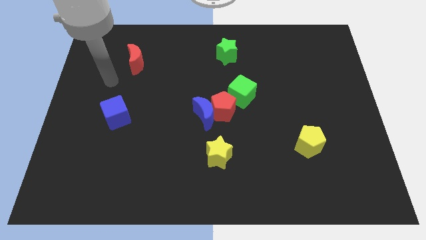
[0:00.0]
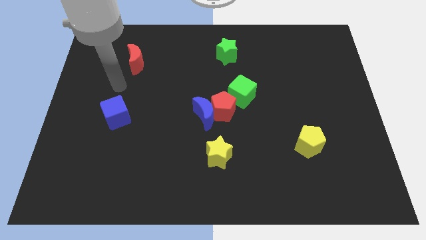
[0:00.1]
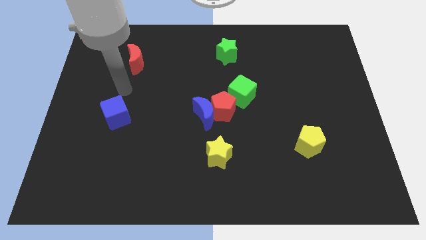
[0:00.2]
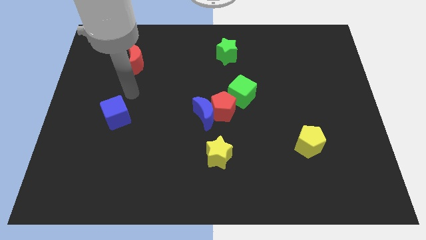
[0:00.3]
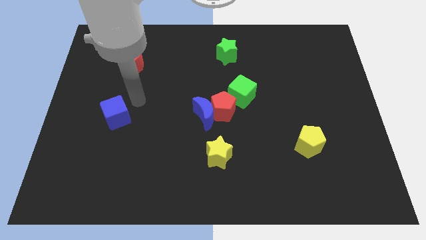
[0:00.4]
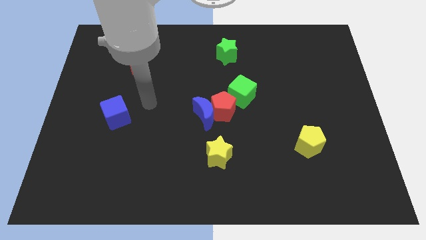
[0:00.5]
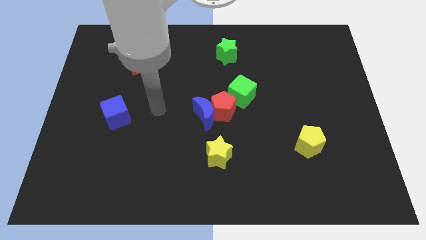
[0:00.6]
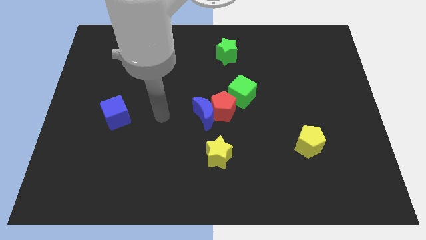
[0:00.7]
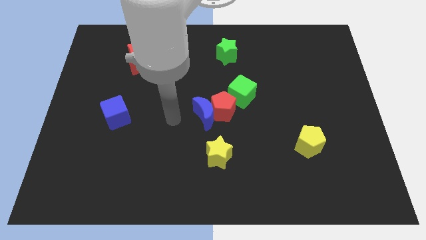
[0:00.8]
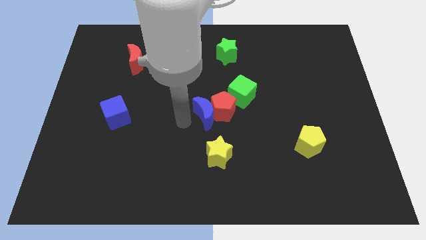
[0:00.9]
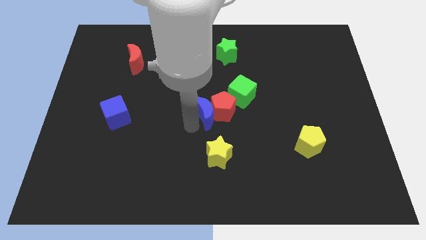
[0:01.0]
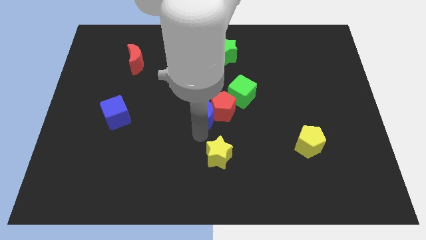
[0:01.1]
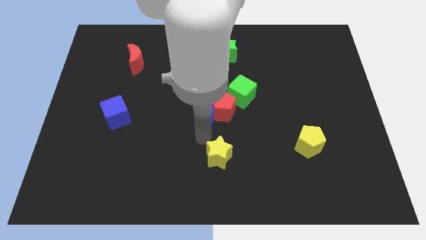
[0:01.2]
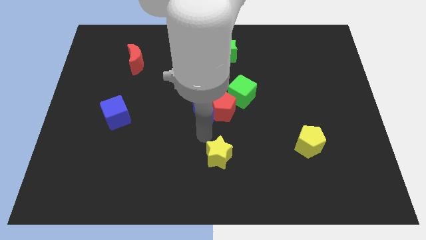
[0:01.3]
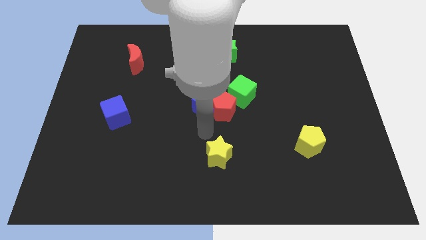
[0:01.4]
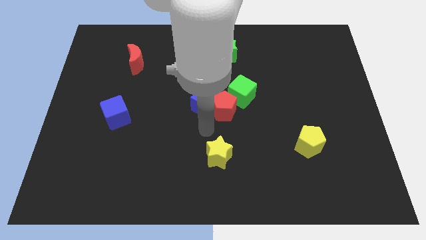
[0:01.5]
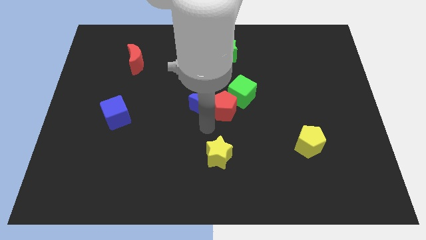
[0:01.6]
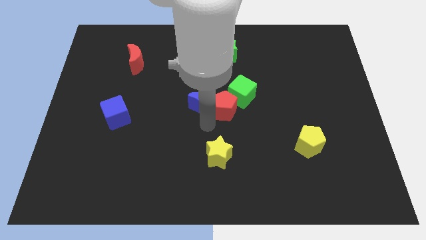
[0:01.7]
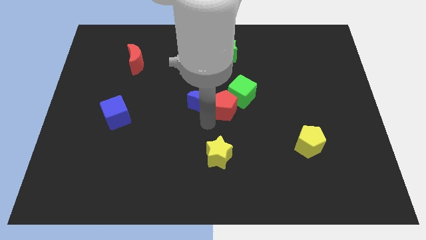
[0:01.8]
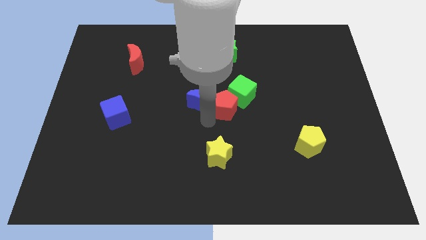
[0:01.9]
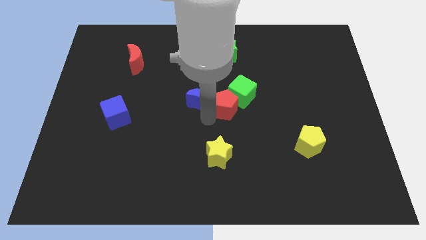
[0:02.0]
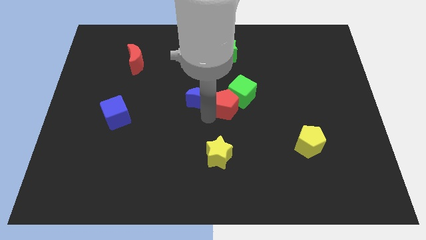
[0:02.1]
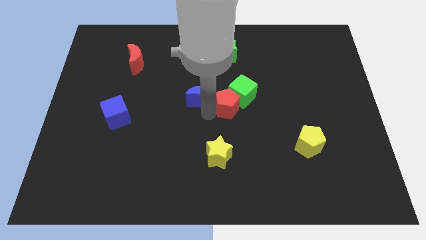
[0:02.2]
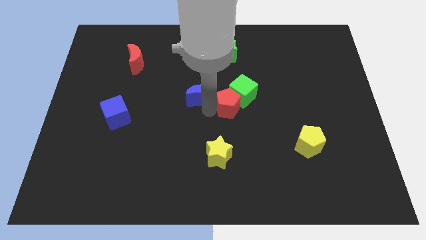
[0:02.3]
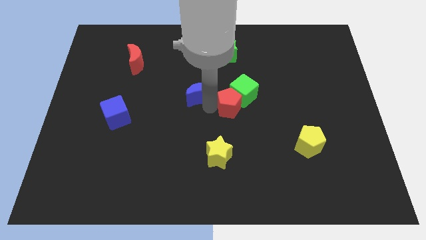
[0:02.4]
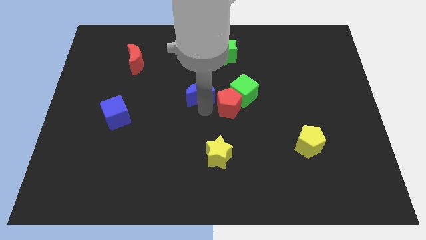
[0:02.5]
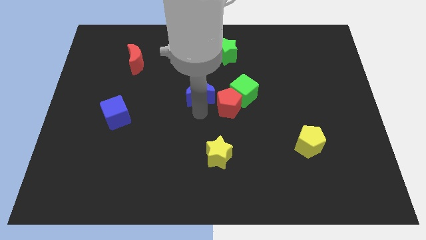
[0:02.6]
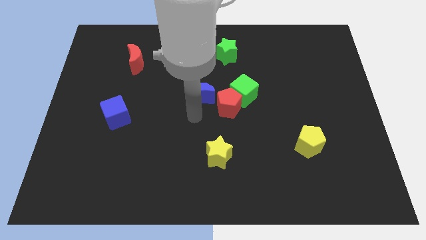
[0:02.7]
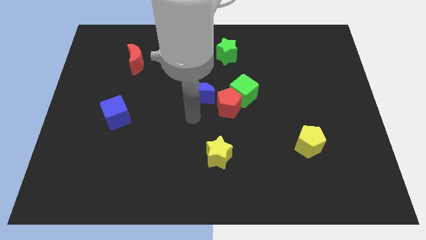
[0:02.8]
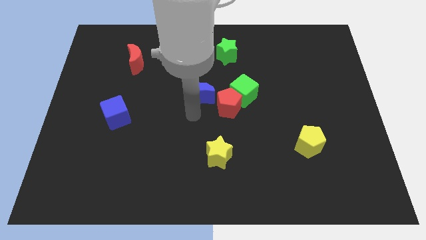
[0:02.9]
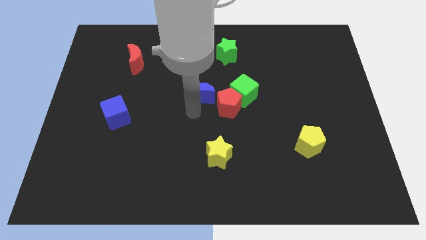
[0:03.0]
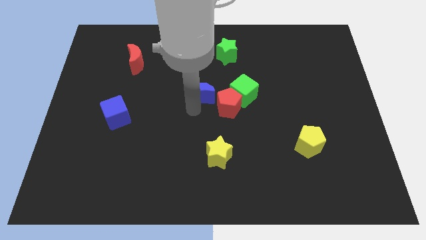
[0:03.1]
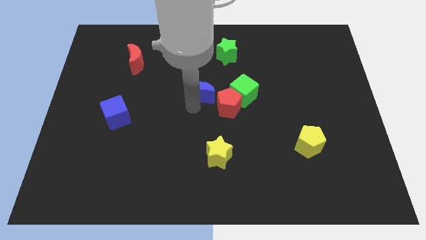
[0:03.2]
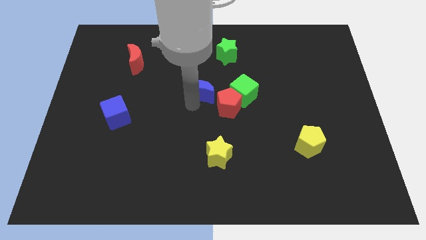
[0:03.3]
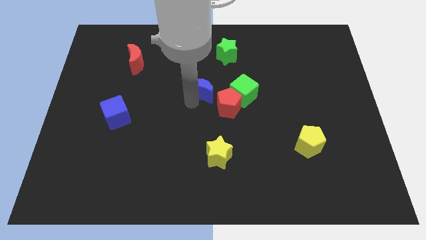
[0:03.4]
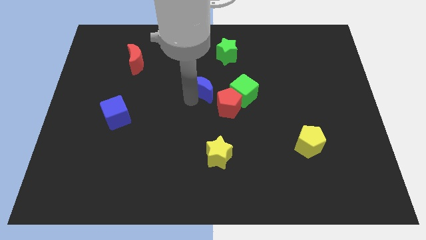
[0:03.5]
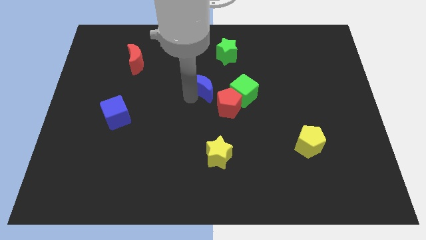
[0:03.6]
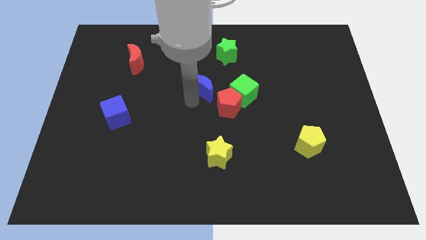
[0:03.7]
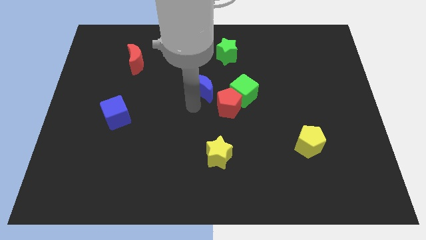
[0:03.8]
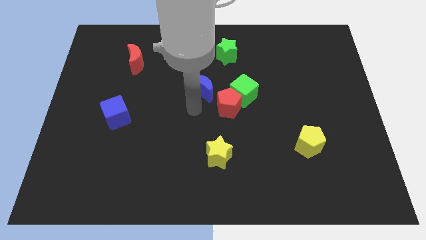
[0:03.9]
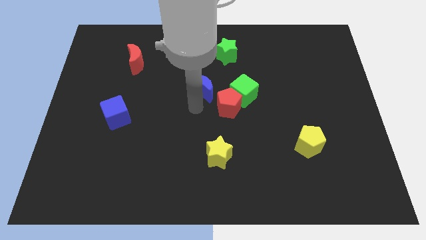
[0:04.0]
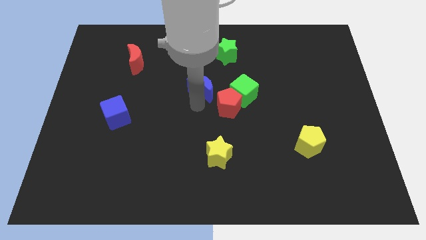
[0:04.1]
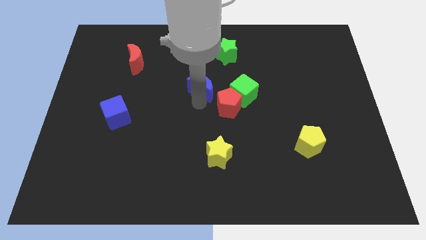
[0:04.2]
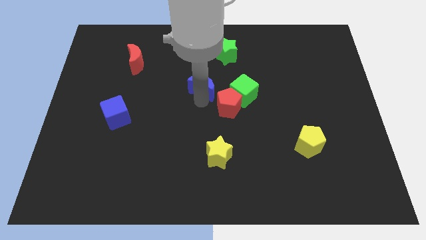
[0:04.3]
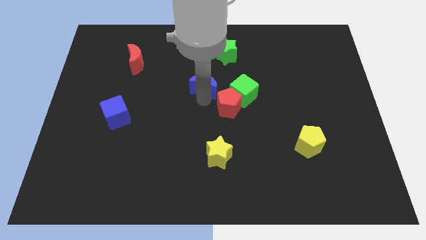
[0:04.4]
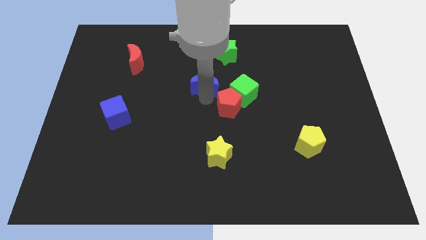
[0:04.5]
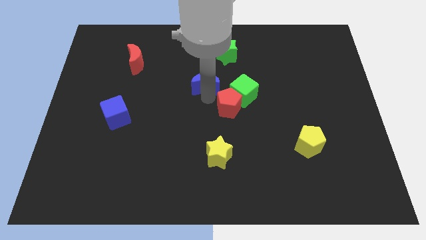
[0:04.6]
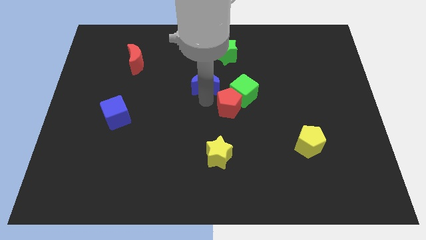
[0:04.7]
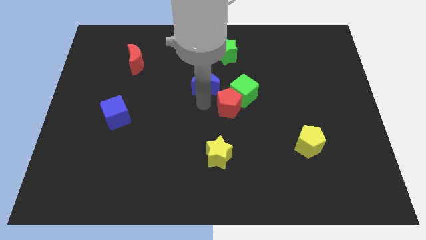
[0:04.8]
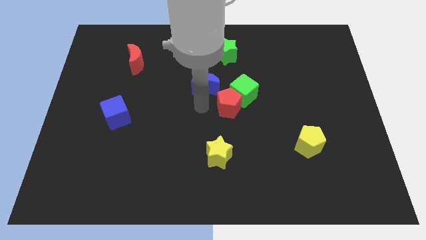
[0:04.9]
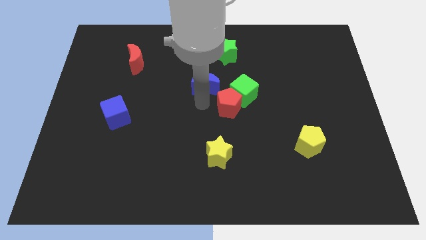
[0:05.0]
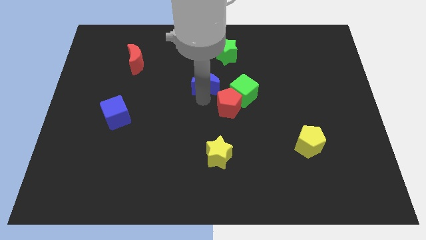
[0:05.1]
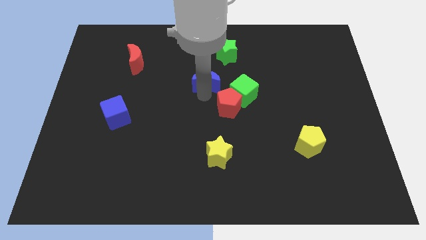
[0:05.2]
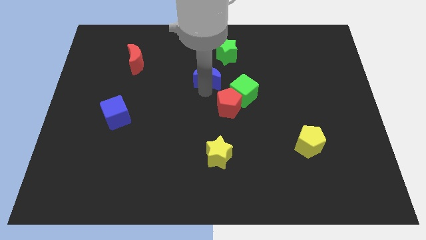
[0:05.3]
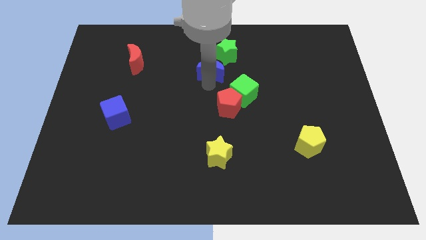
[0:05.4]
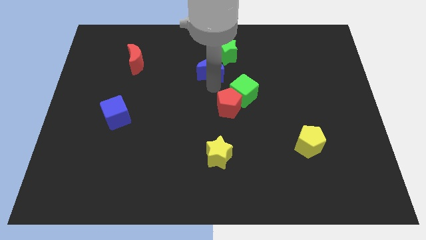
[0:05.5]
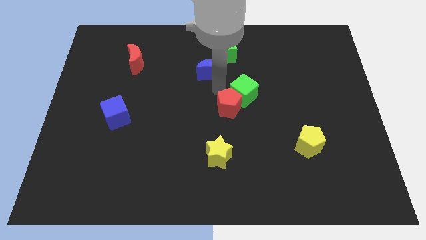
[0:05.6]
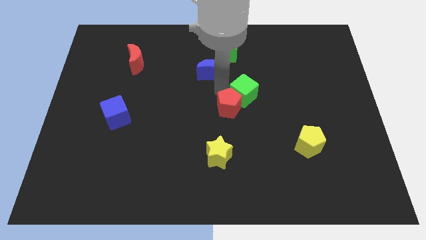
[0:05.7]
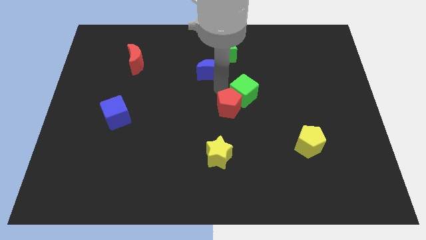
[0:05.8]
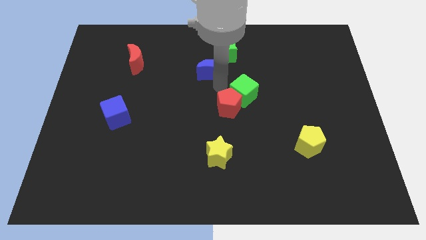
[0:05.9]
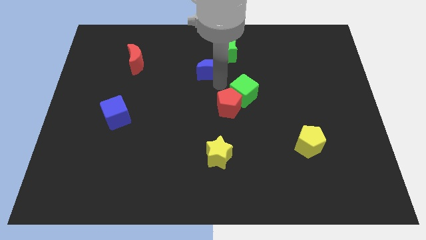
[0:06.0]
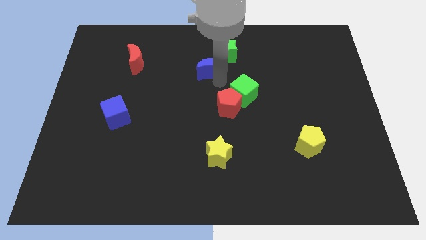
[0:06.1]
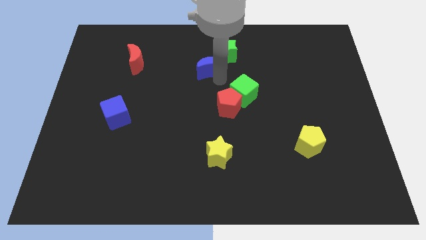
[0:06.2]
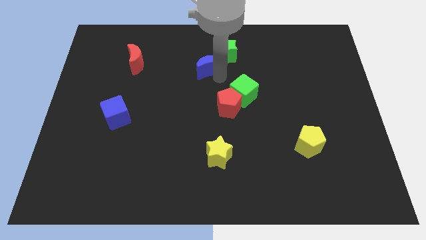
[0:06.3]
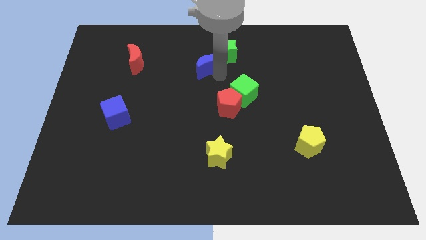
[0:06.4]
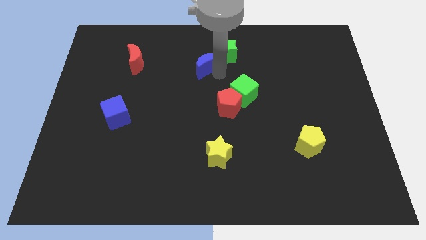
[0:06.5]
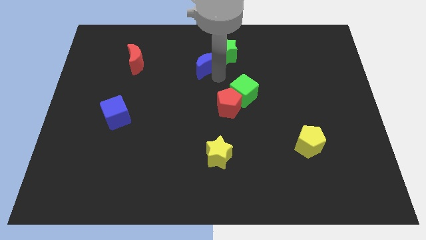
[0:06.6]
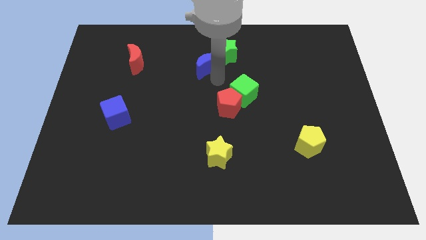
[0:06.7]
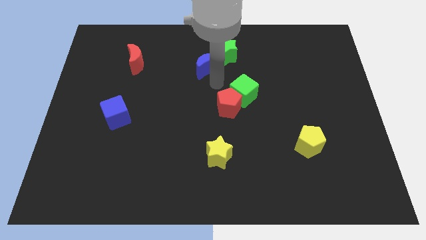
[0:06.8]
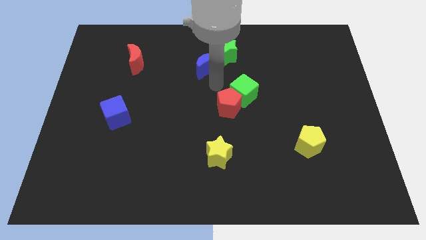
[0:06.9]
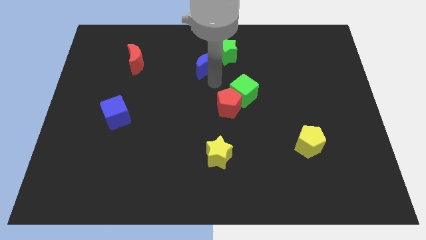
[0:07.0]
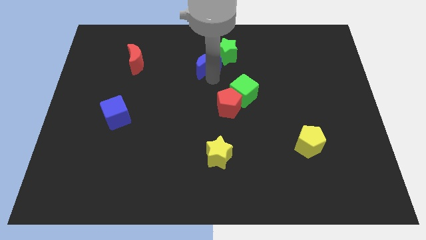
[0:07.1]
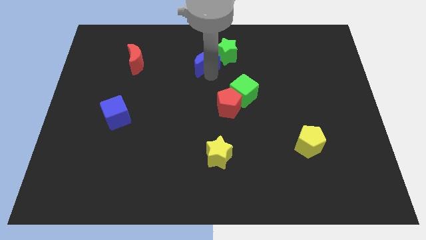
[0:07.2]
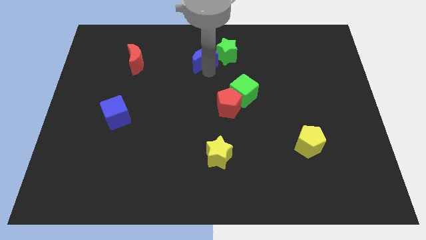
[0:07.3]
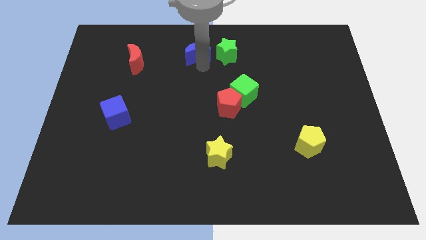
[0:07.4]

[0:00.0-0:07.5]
put the blue moon to the top side
